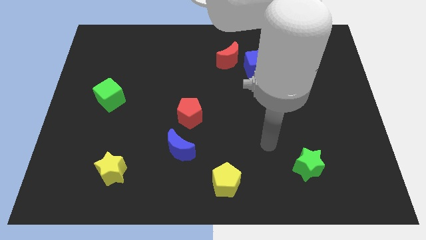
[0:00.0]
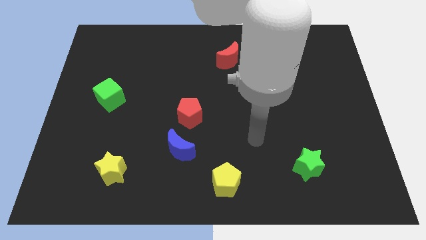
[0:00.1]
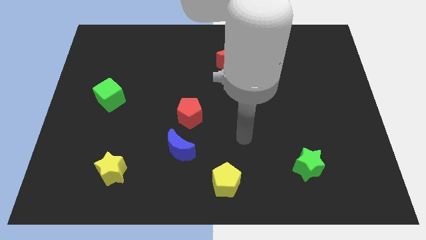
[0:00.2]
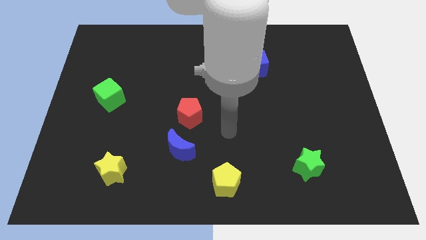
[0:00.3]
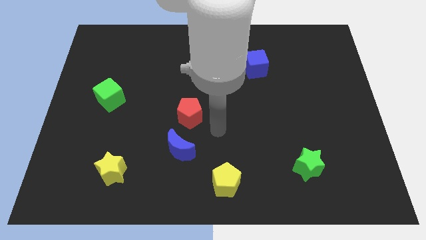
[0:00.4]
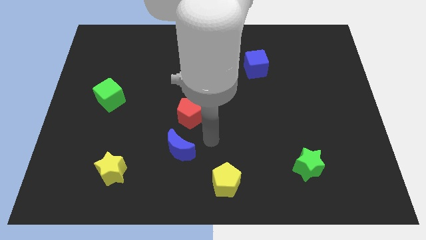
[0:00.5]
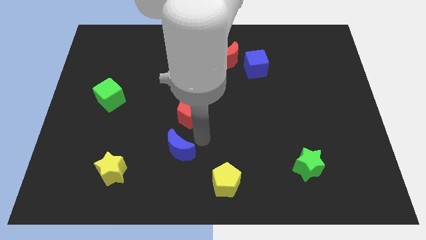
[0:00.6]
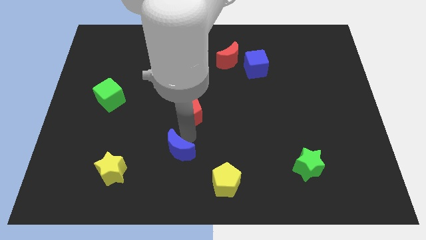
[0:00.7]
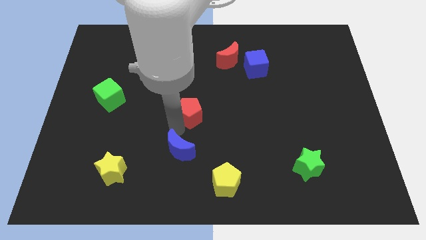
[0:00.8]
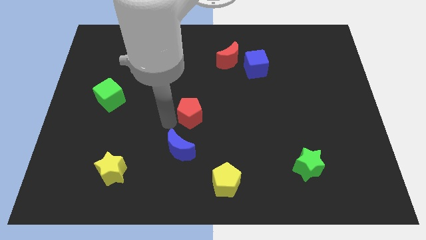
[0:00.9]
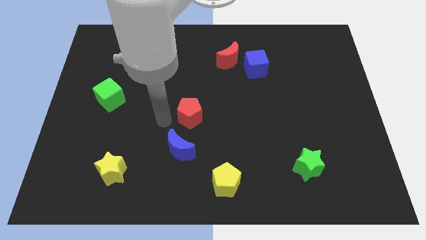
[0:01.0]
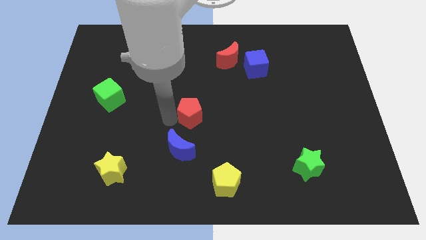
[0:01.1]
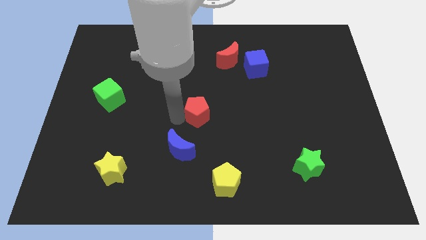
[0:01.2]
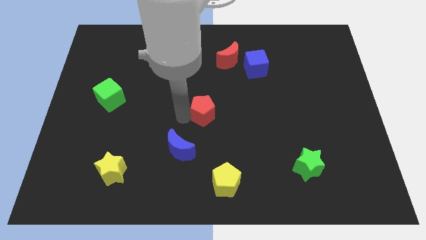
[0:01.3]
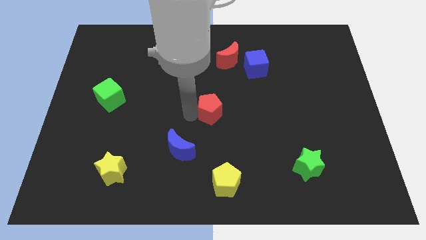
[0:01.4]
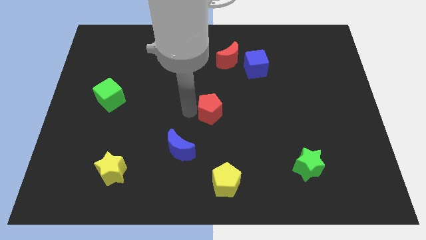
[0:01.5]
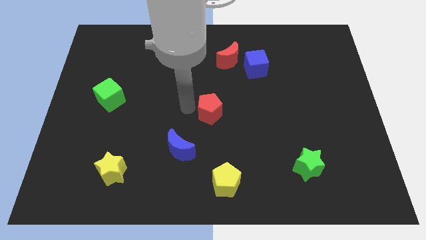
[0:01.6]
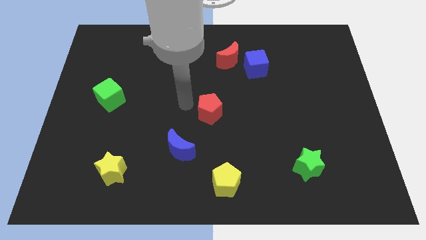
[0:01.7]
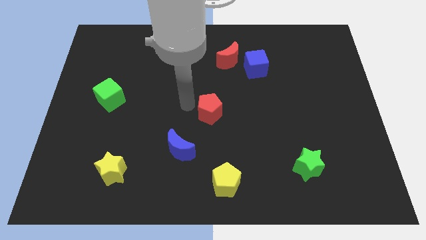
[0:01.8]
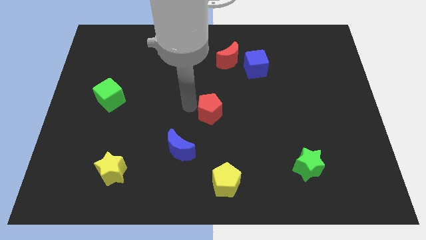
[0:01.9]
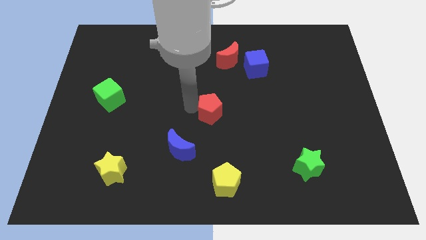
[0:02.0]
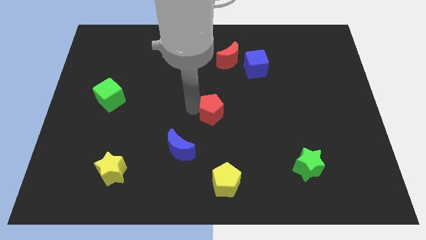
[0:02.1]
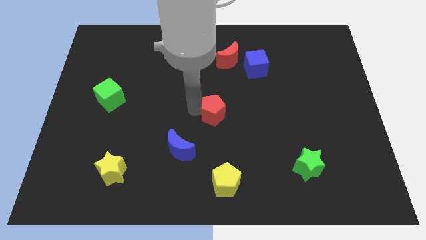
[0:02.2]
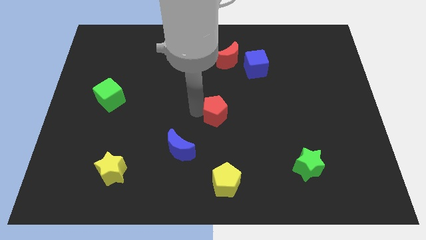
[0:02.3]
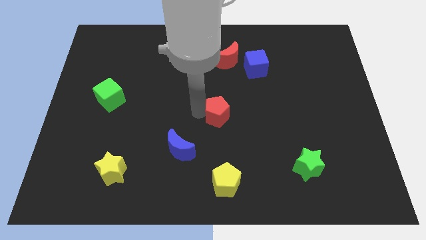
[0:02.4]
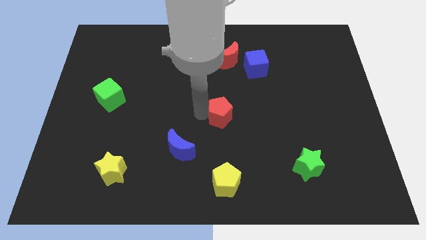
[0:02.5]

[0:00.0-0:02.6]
push the red pentagon to the right a bit

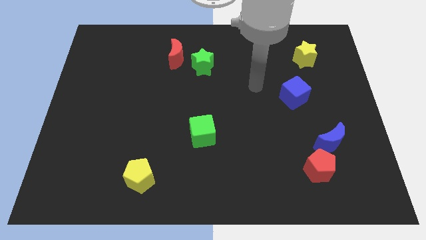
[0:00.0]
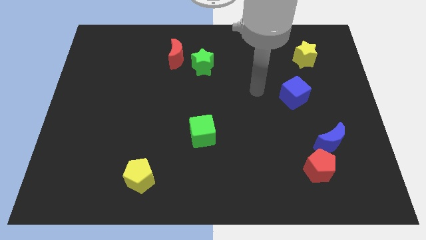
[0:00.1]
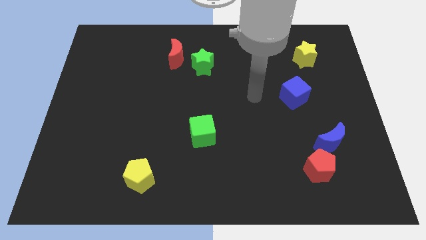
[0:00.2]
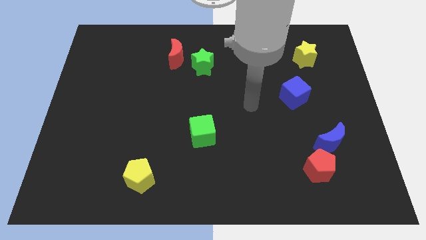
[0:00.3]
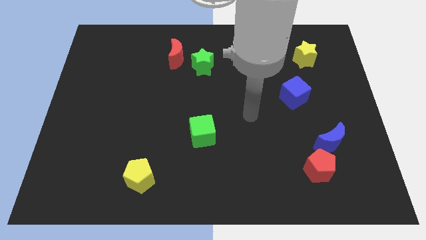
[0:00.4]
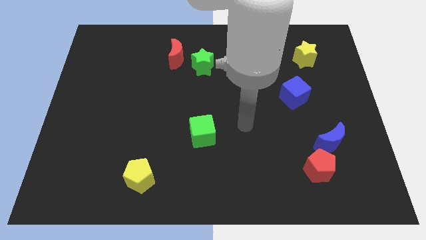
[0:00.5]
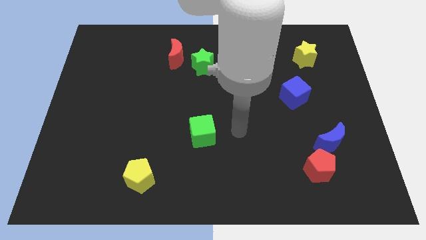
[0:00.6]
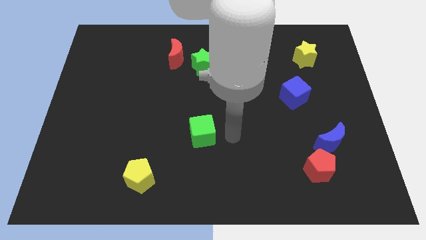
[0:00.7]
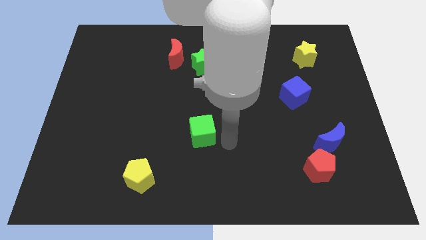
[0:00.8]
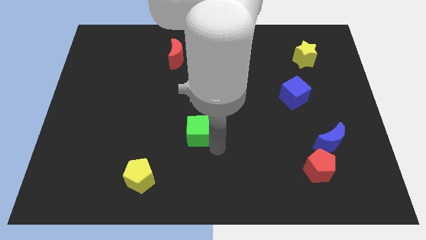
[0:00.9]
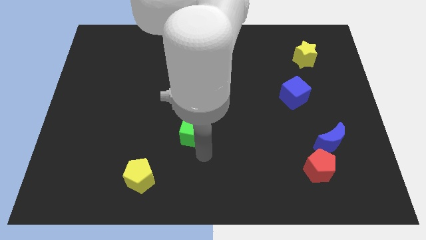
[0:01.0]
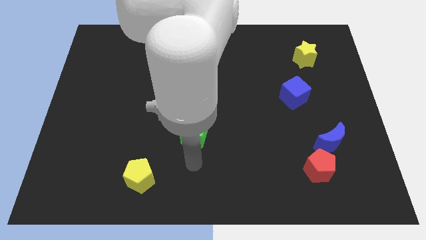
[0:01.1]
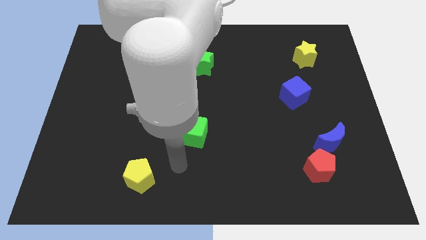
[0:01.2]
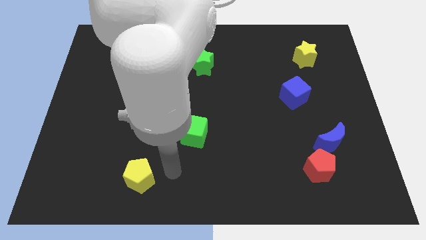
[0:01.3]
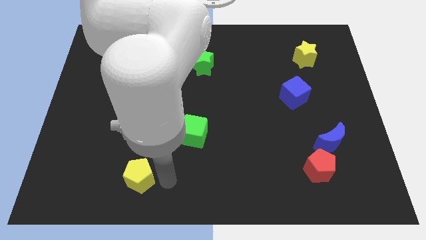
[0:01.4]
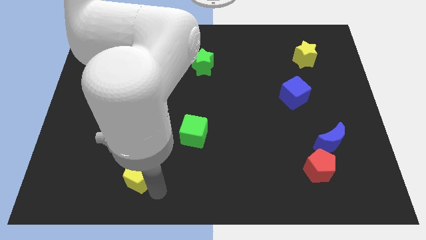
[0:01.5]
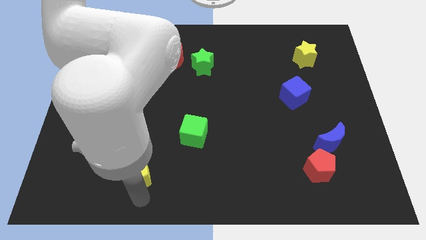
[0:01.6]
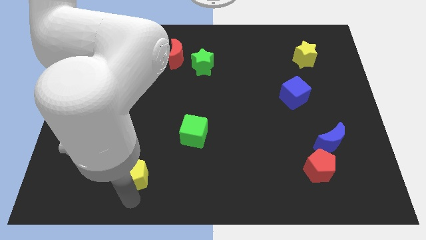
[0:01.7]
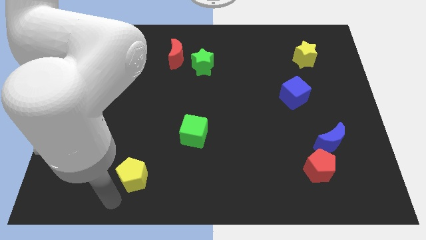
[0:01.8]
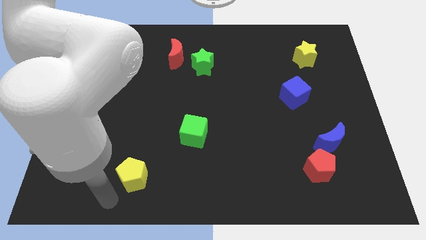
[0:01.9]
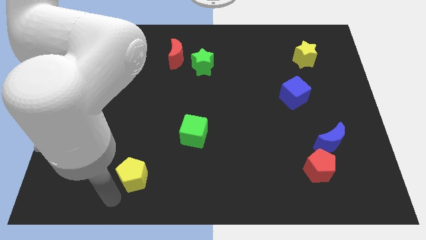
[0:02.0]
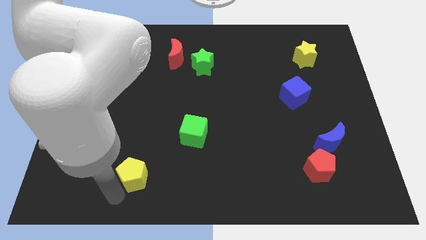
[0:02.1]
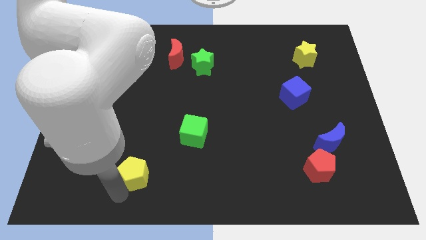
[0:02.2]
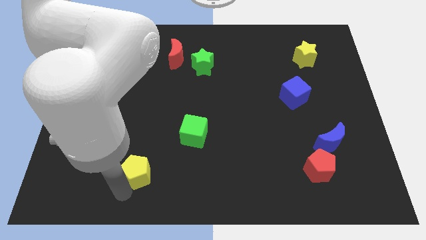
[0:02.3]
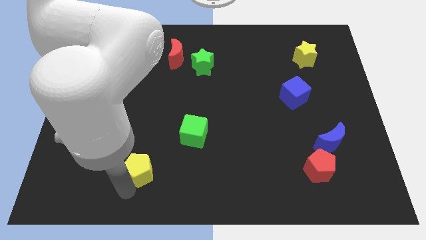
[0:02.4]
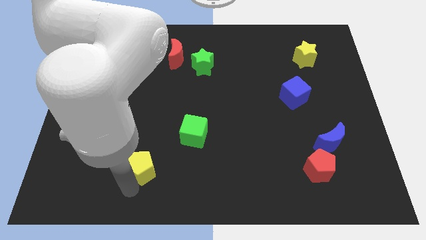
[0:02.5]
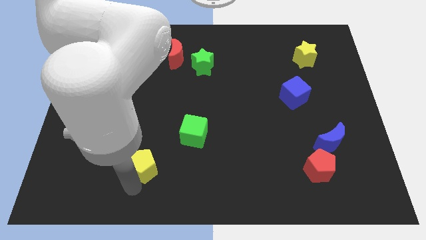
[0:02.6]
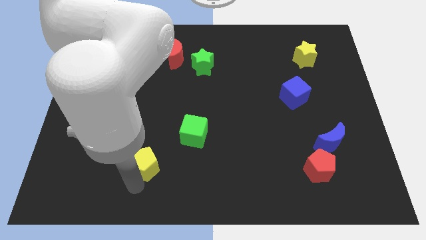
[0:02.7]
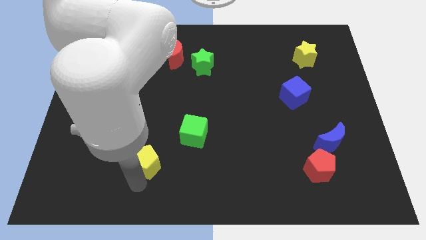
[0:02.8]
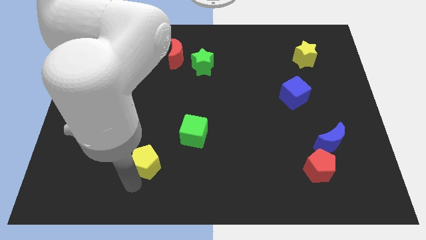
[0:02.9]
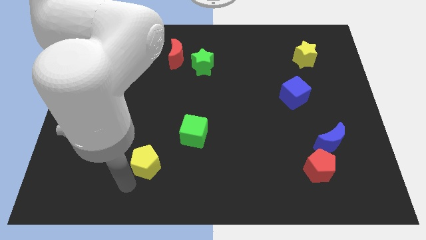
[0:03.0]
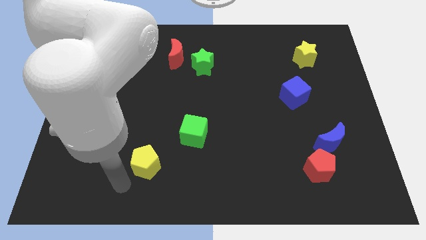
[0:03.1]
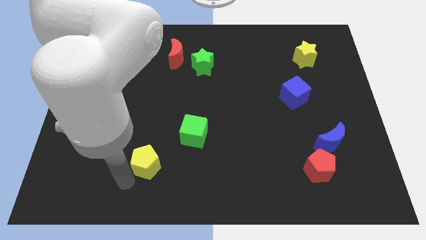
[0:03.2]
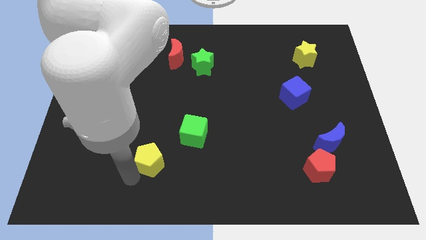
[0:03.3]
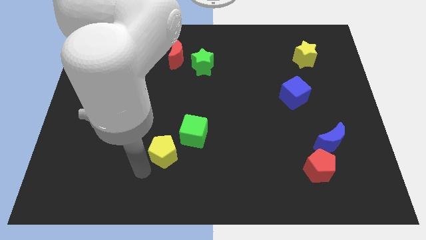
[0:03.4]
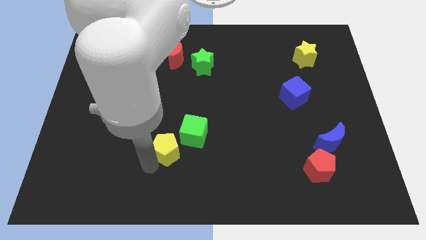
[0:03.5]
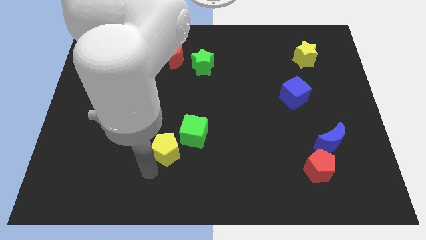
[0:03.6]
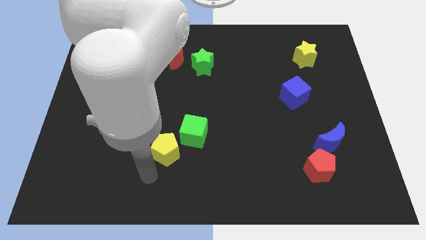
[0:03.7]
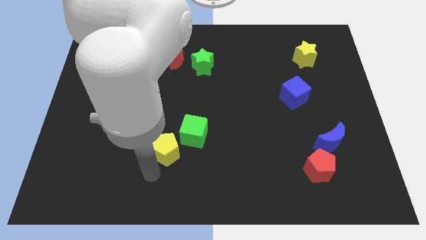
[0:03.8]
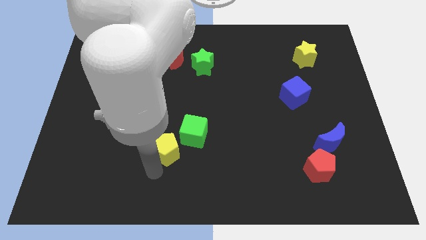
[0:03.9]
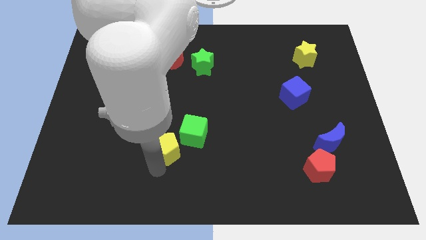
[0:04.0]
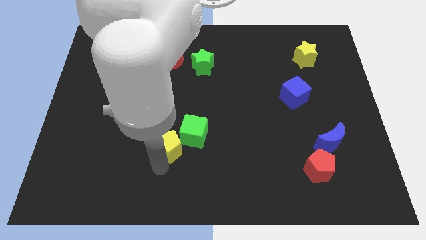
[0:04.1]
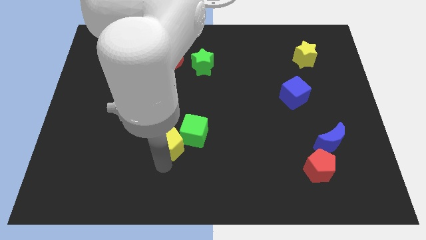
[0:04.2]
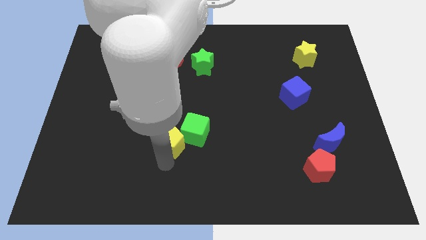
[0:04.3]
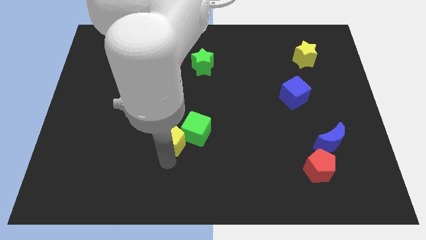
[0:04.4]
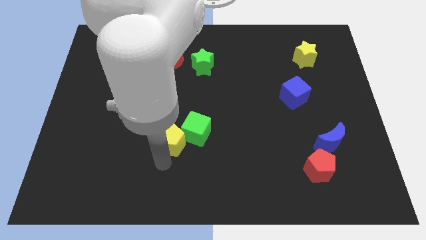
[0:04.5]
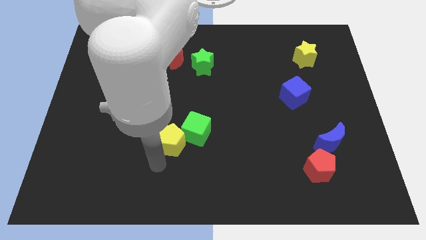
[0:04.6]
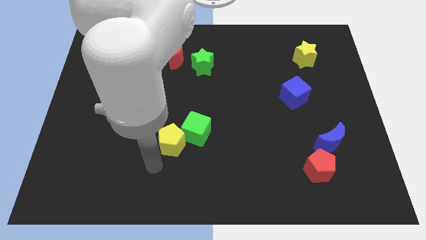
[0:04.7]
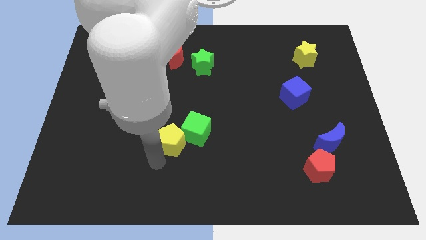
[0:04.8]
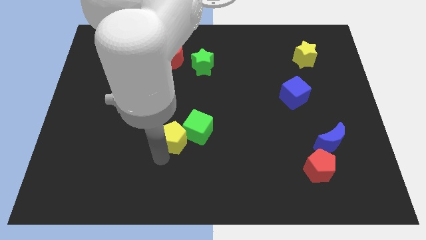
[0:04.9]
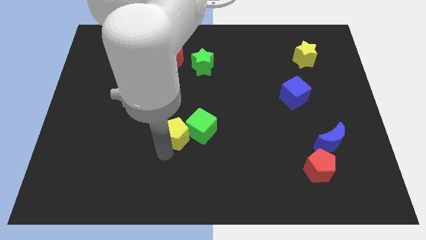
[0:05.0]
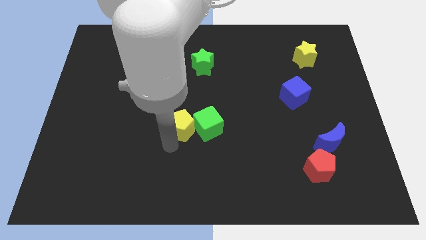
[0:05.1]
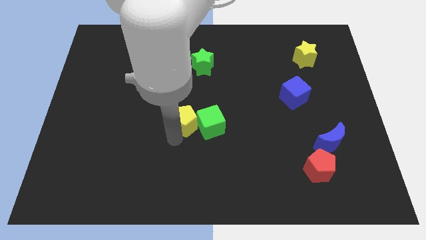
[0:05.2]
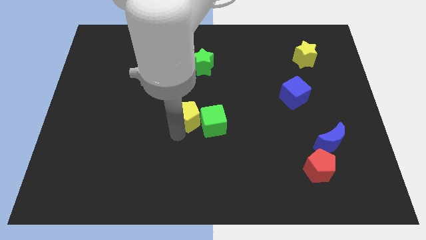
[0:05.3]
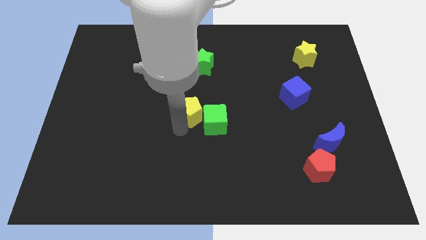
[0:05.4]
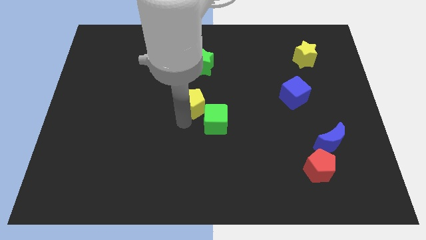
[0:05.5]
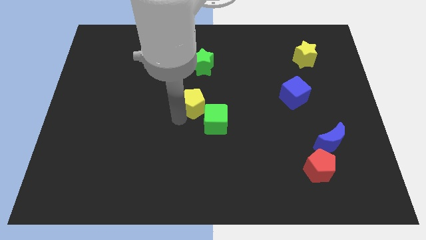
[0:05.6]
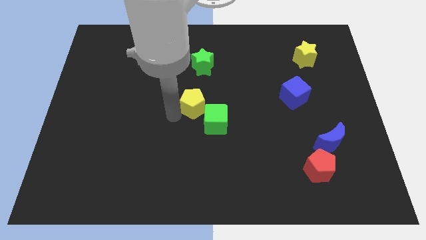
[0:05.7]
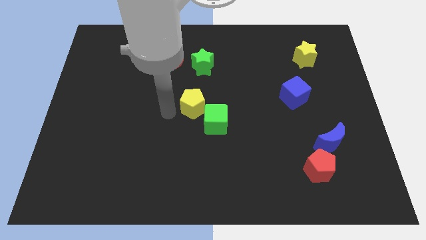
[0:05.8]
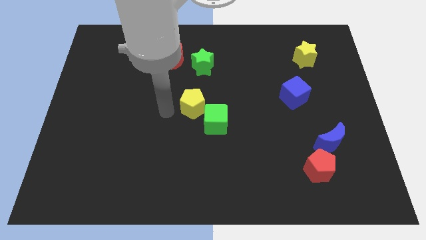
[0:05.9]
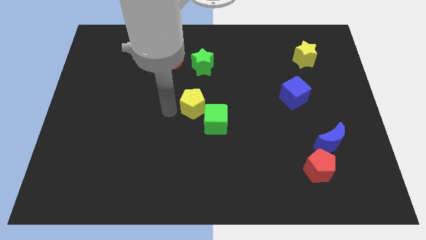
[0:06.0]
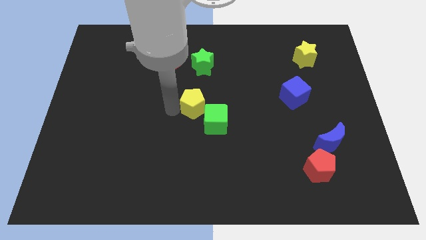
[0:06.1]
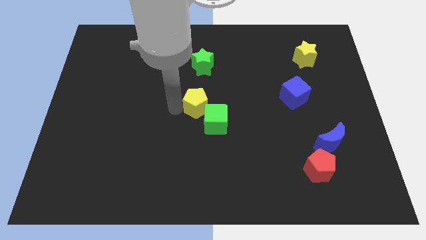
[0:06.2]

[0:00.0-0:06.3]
push the yellow pentagon diagonally up and right
